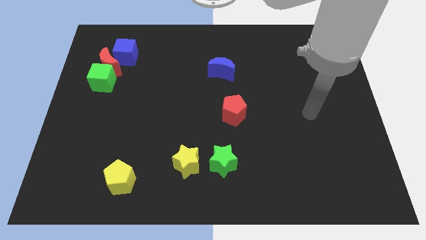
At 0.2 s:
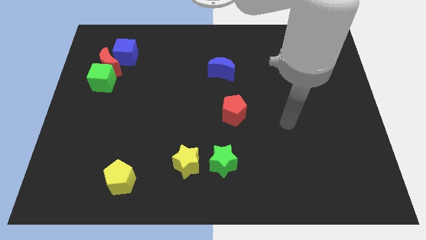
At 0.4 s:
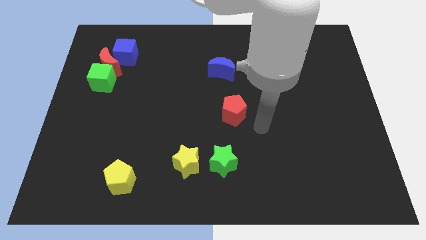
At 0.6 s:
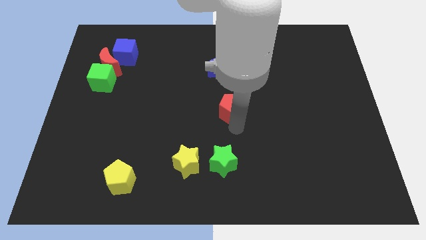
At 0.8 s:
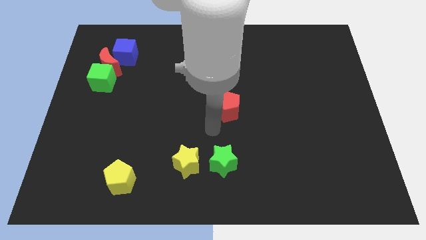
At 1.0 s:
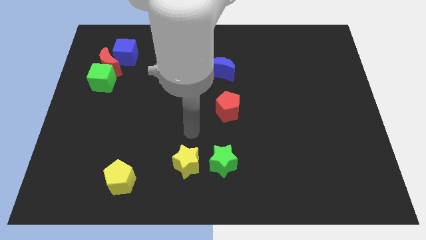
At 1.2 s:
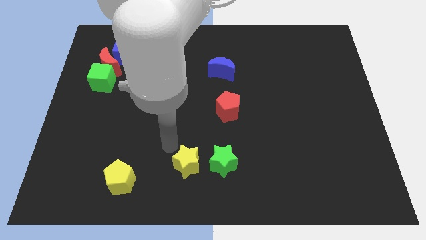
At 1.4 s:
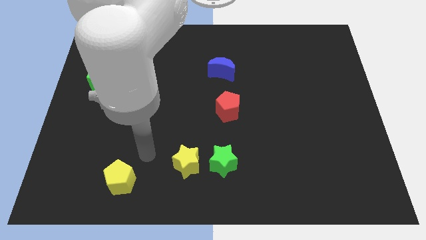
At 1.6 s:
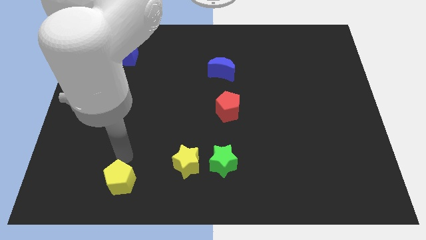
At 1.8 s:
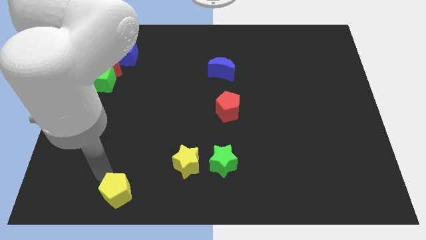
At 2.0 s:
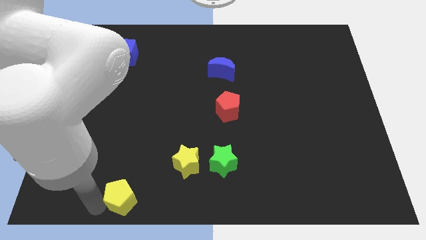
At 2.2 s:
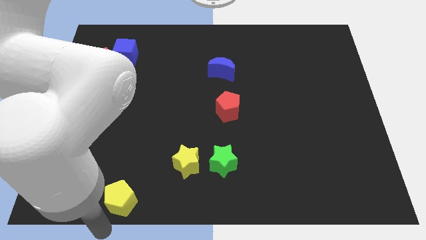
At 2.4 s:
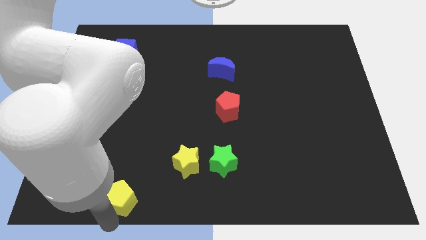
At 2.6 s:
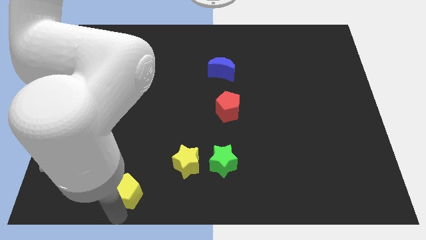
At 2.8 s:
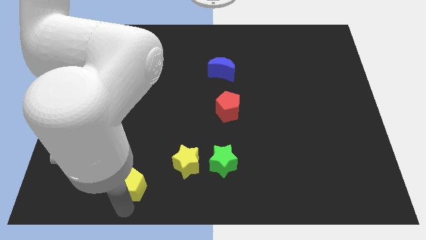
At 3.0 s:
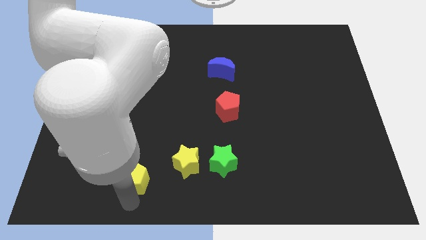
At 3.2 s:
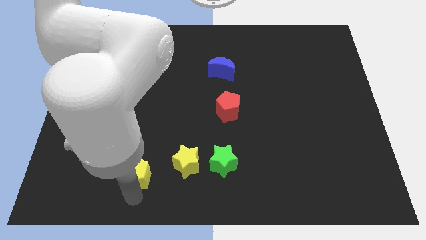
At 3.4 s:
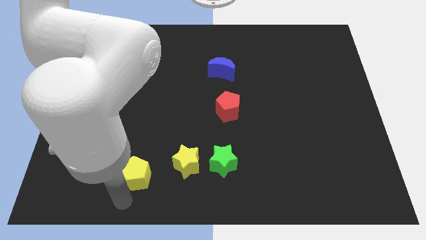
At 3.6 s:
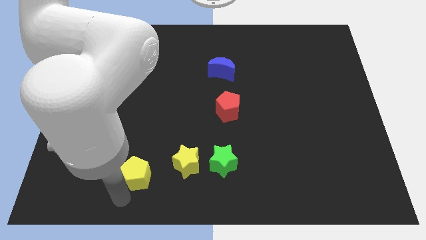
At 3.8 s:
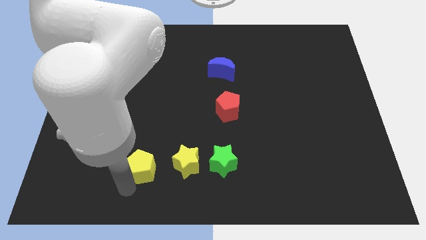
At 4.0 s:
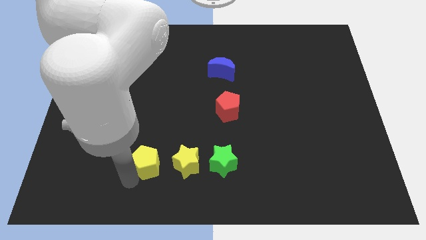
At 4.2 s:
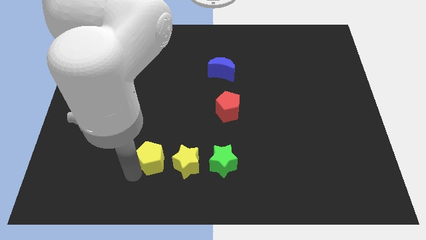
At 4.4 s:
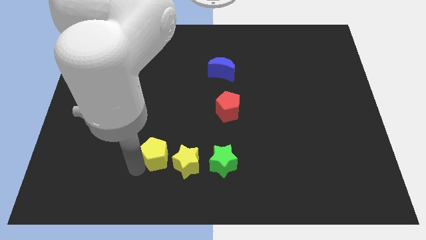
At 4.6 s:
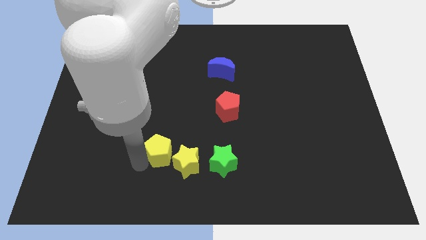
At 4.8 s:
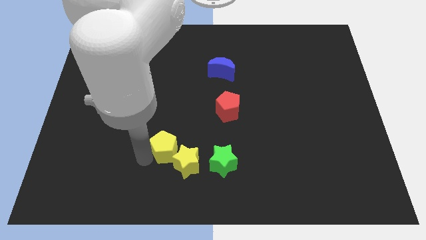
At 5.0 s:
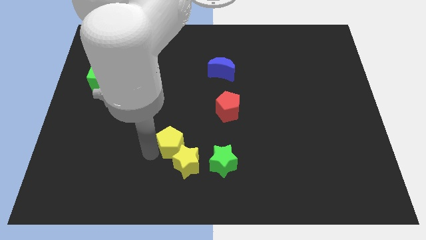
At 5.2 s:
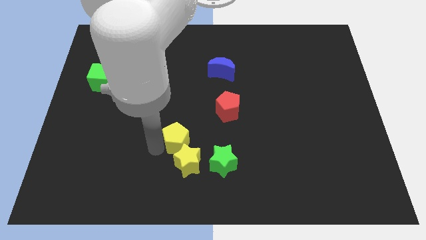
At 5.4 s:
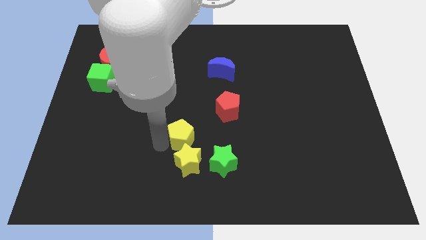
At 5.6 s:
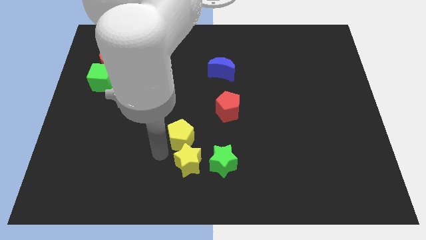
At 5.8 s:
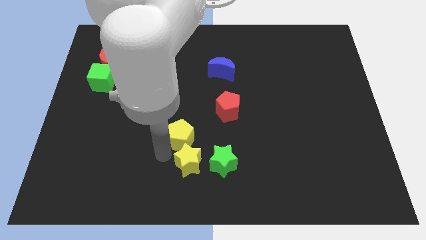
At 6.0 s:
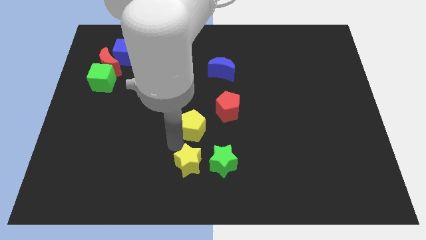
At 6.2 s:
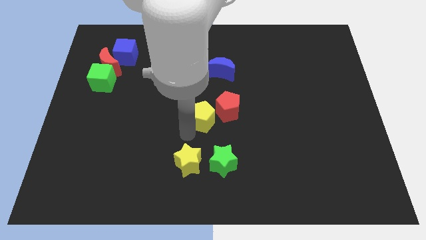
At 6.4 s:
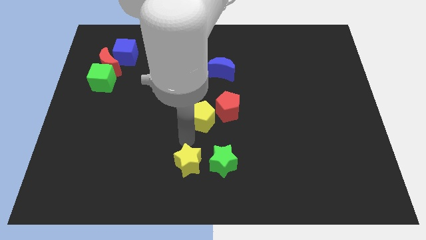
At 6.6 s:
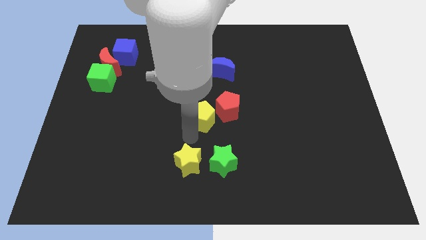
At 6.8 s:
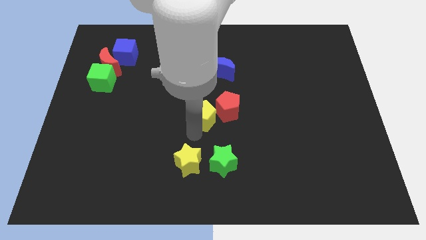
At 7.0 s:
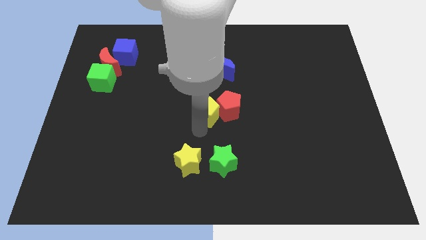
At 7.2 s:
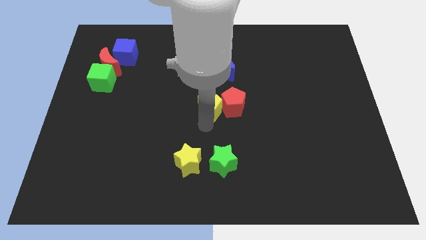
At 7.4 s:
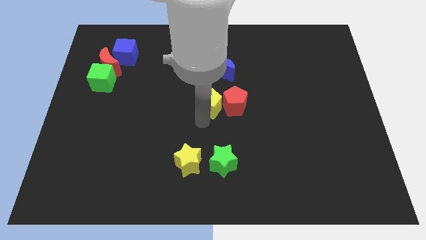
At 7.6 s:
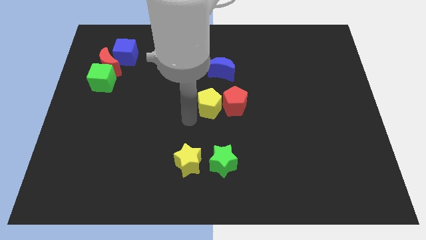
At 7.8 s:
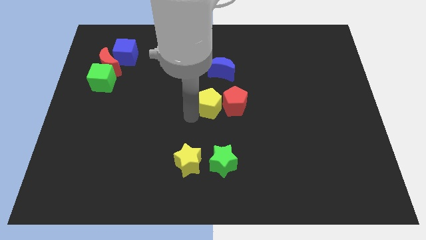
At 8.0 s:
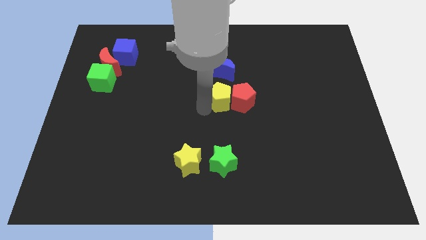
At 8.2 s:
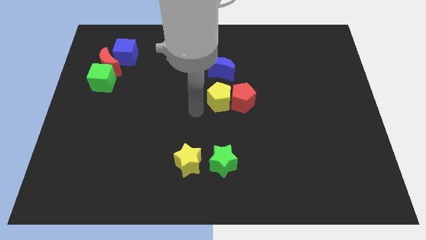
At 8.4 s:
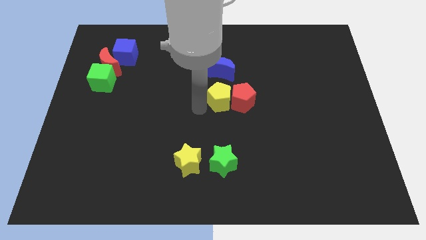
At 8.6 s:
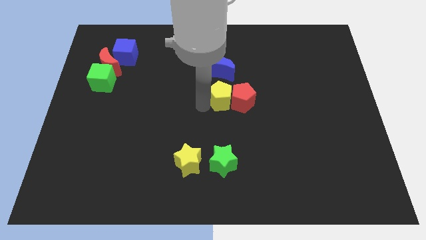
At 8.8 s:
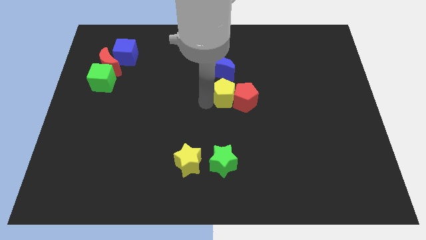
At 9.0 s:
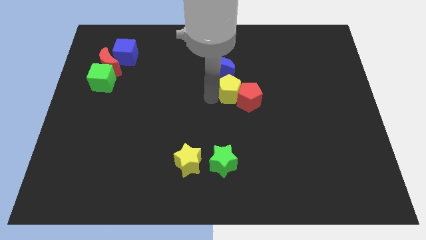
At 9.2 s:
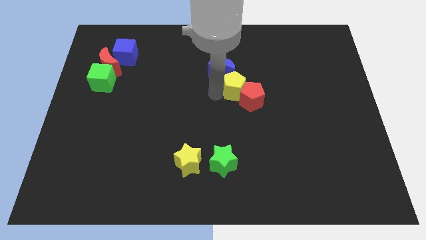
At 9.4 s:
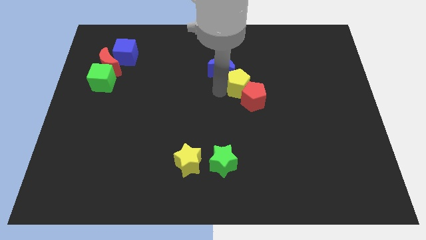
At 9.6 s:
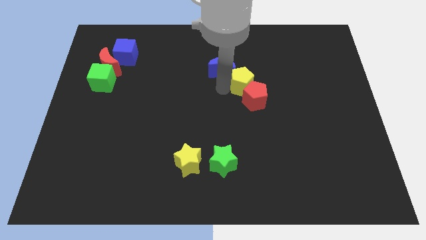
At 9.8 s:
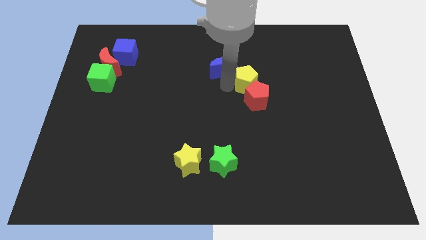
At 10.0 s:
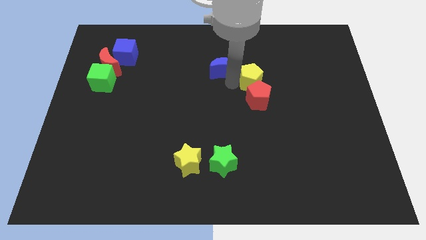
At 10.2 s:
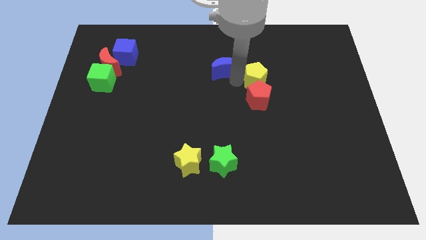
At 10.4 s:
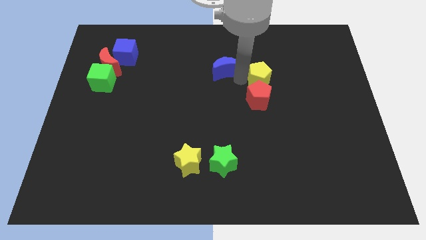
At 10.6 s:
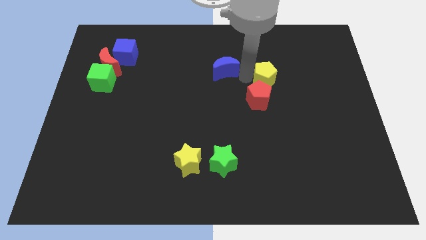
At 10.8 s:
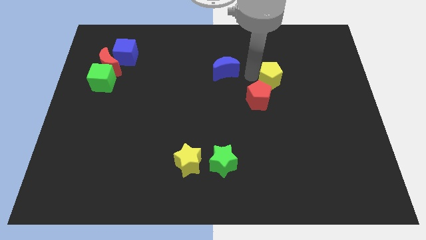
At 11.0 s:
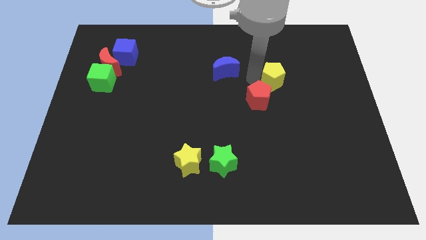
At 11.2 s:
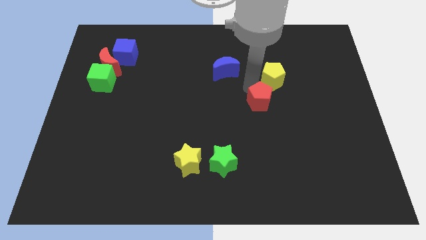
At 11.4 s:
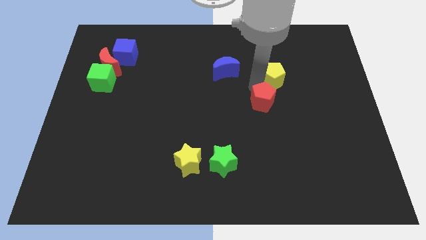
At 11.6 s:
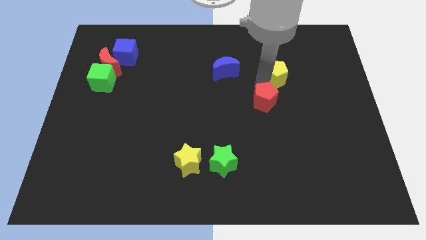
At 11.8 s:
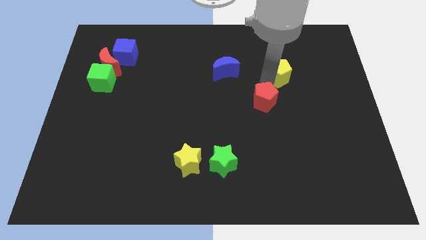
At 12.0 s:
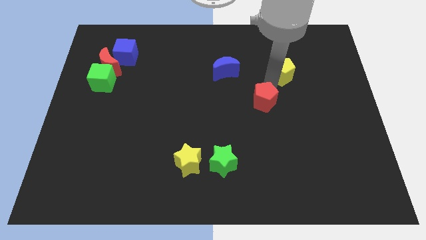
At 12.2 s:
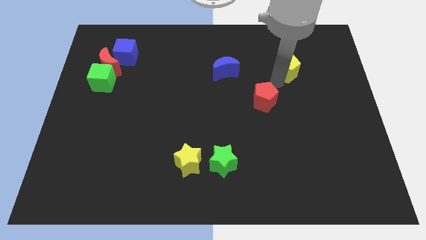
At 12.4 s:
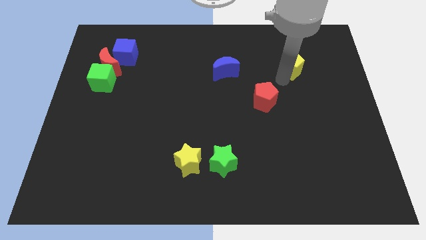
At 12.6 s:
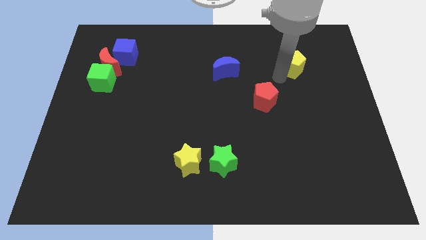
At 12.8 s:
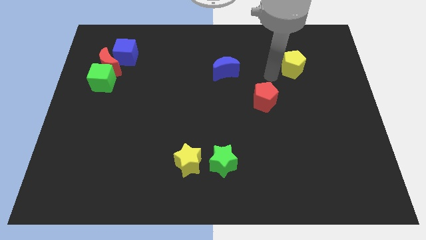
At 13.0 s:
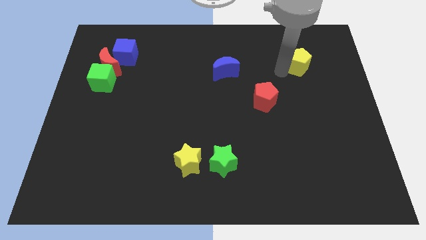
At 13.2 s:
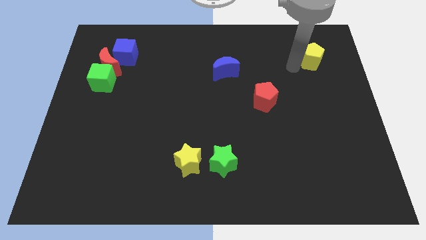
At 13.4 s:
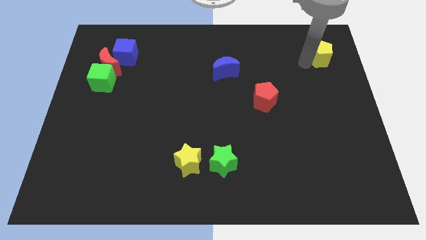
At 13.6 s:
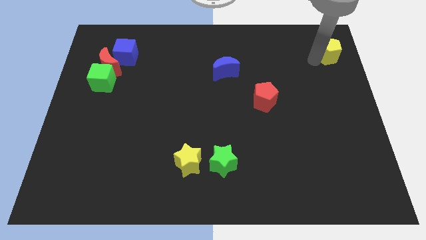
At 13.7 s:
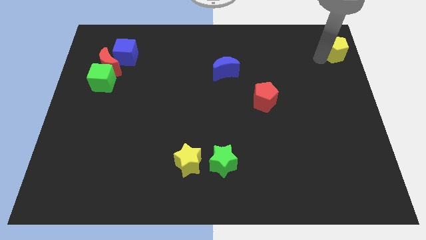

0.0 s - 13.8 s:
slide the yellow pentagon to the top right of the board
